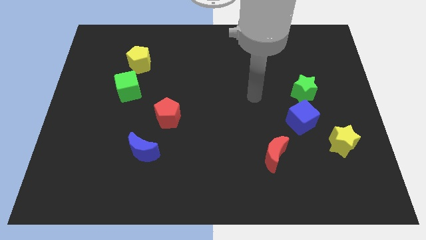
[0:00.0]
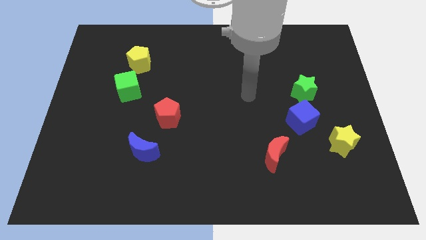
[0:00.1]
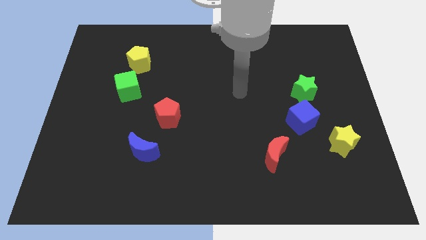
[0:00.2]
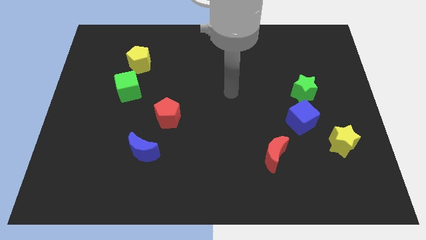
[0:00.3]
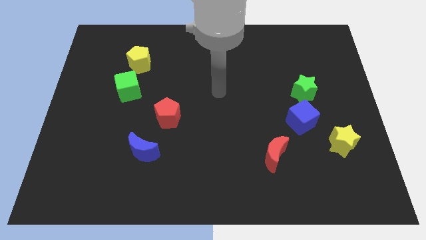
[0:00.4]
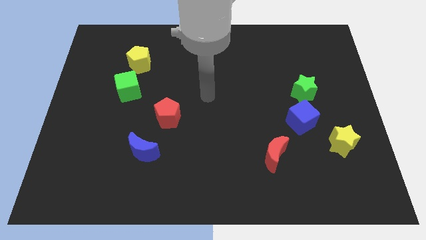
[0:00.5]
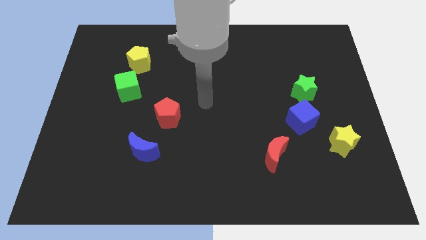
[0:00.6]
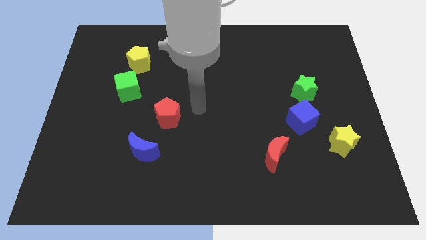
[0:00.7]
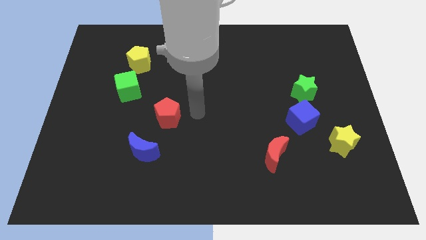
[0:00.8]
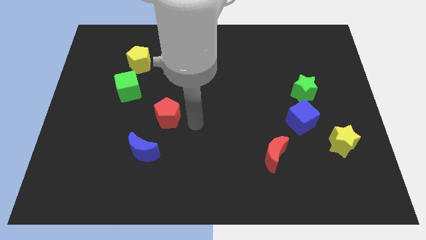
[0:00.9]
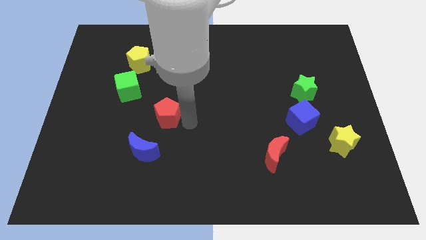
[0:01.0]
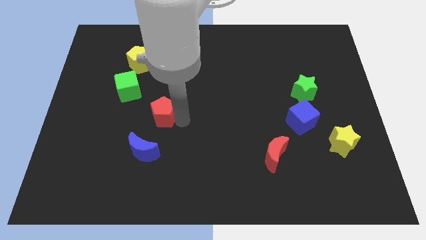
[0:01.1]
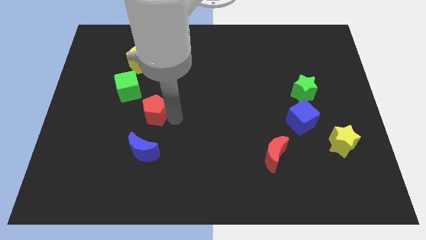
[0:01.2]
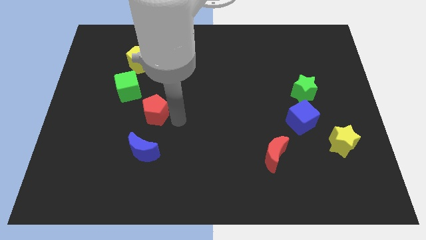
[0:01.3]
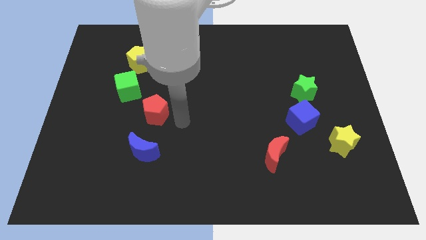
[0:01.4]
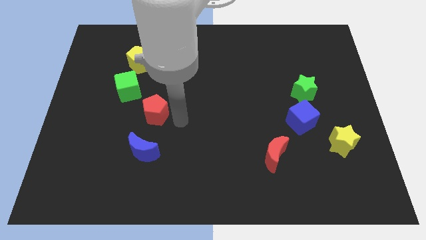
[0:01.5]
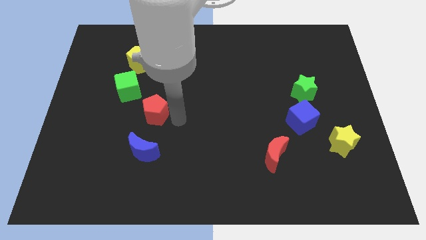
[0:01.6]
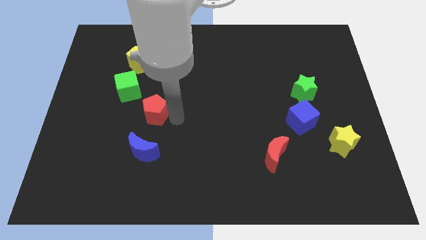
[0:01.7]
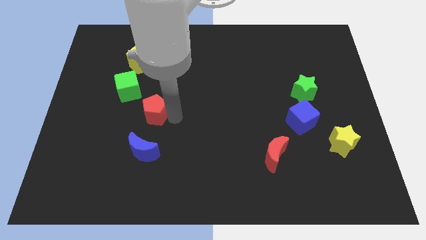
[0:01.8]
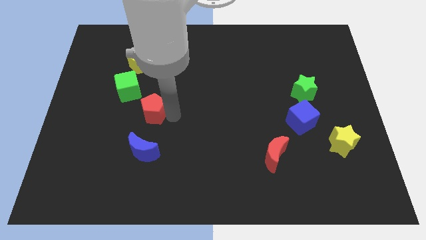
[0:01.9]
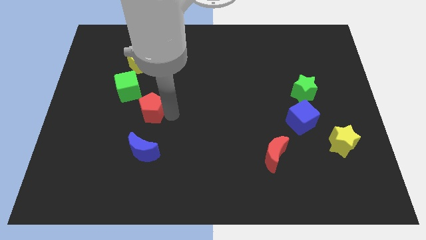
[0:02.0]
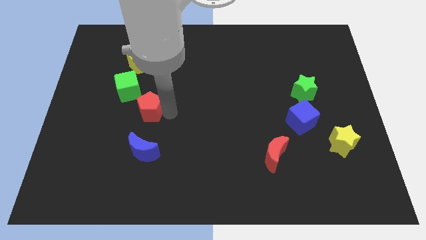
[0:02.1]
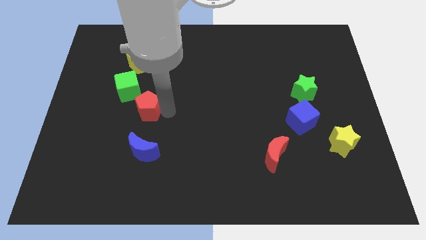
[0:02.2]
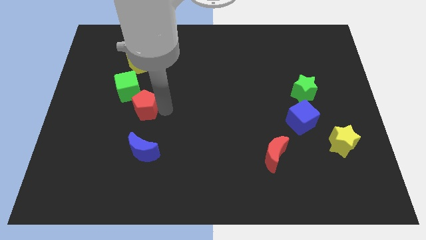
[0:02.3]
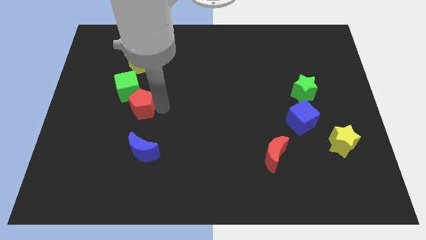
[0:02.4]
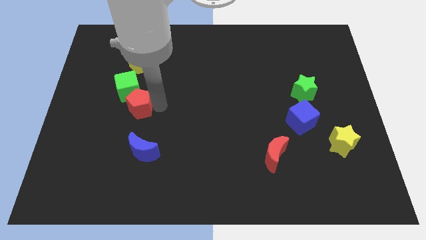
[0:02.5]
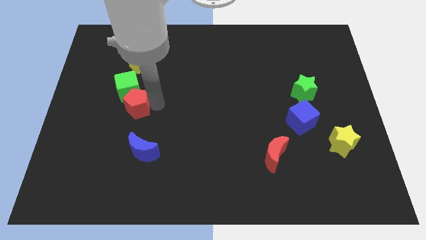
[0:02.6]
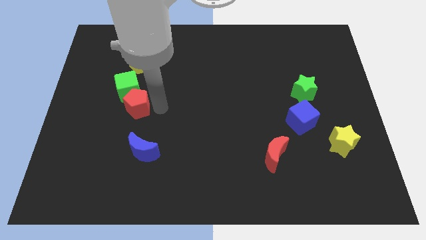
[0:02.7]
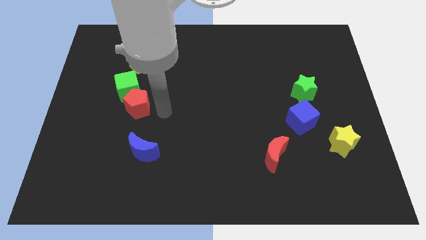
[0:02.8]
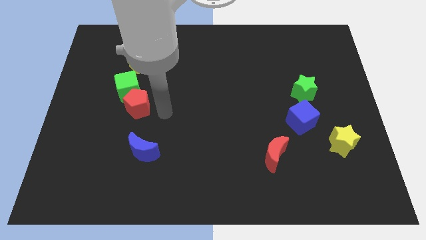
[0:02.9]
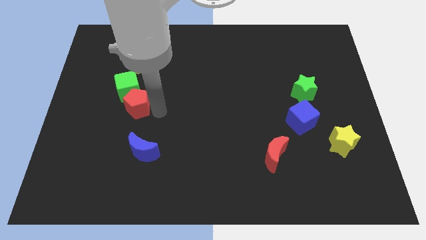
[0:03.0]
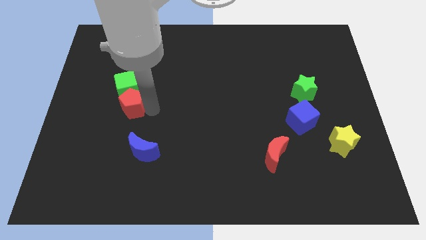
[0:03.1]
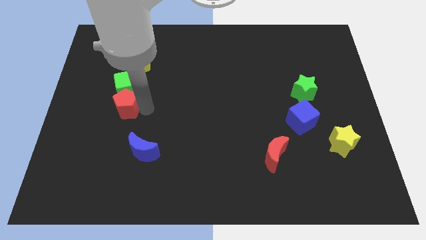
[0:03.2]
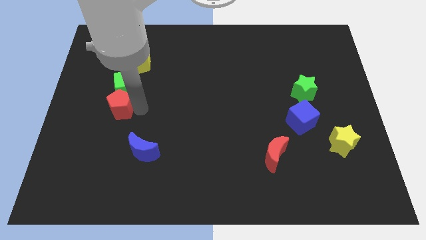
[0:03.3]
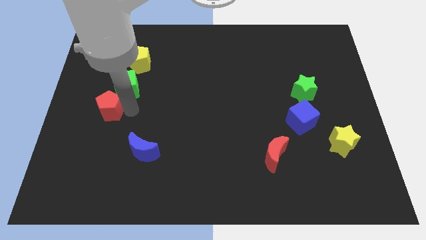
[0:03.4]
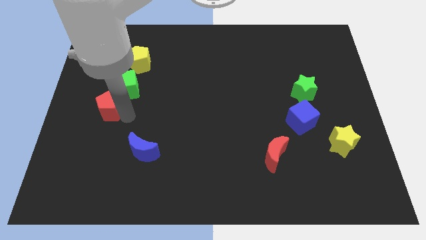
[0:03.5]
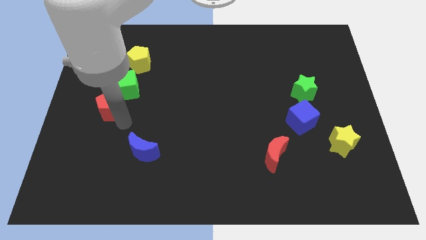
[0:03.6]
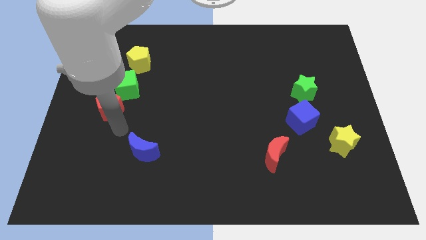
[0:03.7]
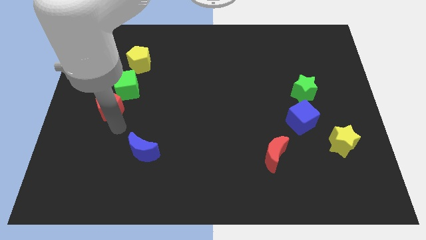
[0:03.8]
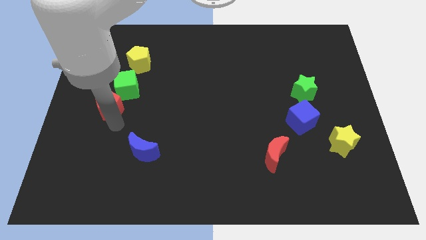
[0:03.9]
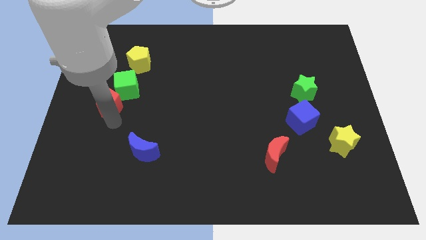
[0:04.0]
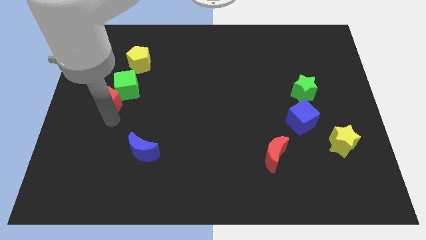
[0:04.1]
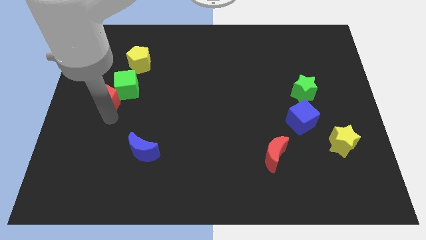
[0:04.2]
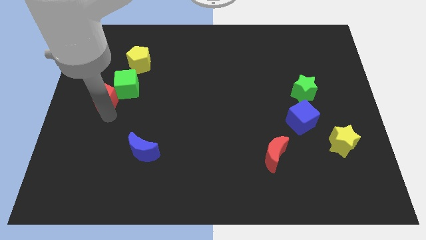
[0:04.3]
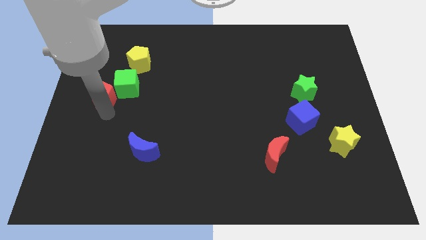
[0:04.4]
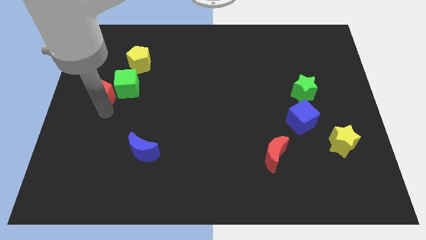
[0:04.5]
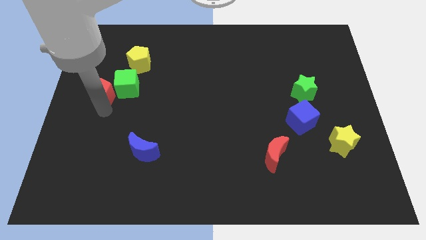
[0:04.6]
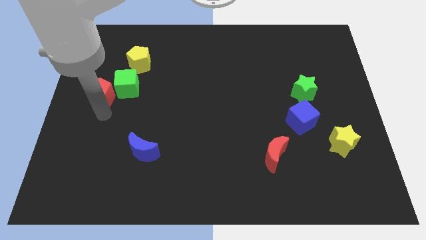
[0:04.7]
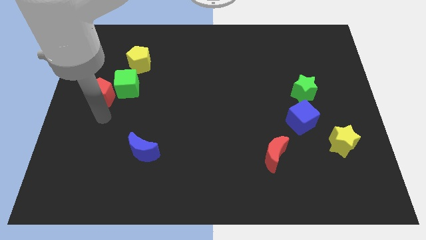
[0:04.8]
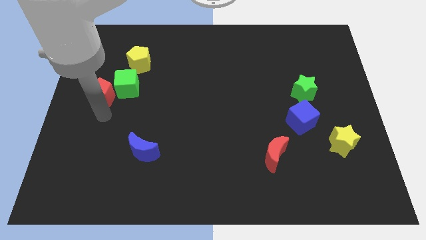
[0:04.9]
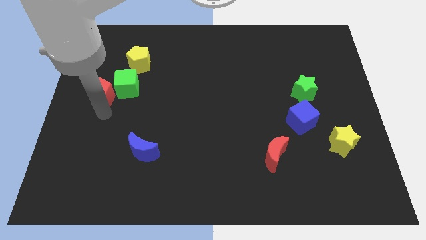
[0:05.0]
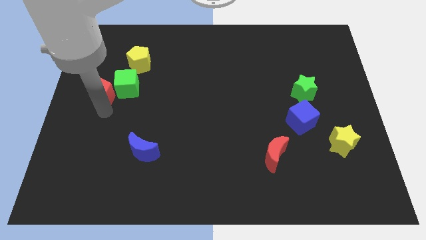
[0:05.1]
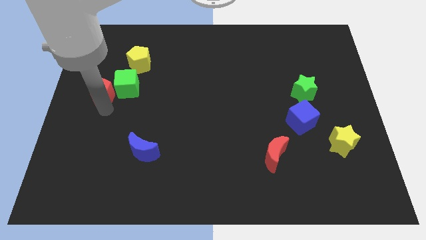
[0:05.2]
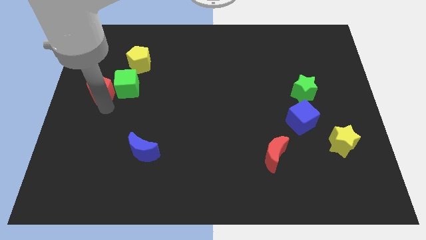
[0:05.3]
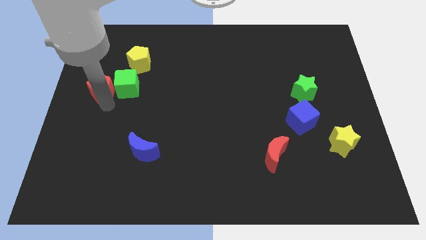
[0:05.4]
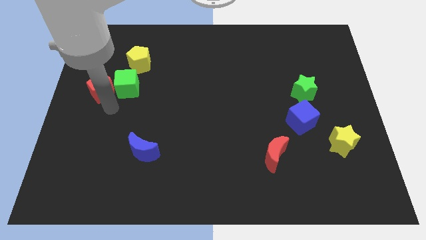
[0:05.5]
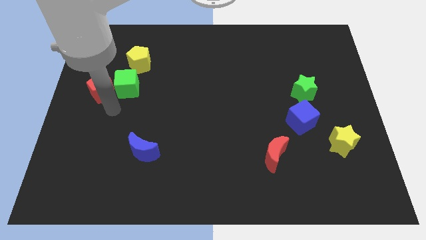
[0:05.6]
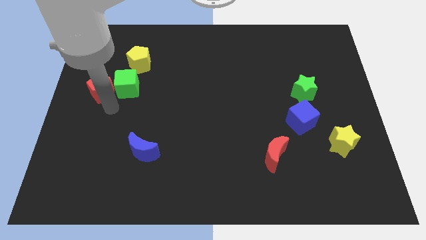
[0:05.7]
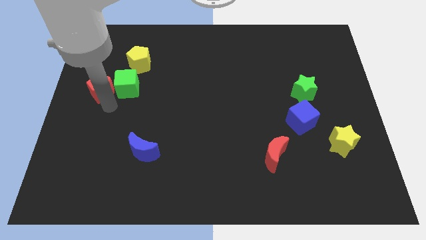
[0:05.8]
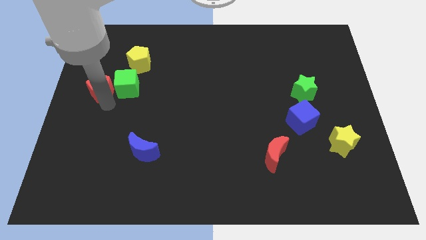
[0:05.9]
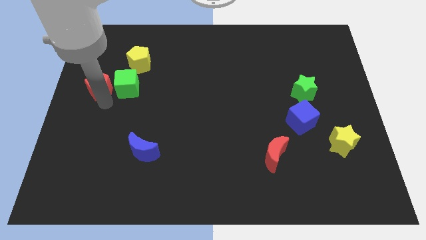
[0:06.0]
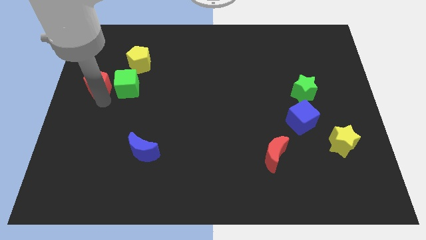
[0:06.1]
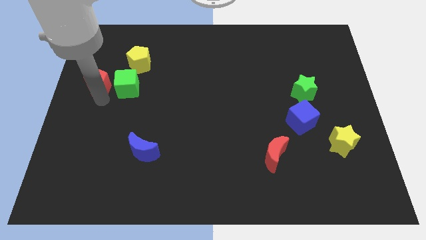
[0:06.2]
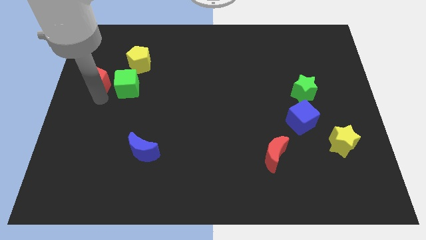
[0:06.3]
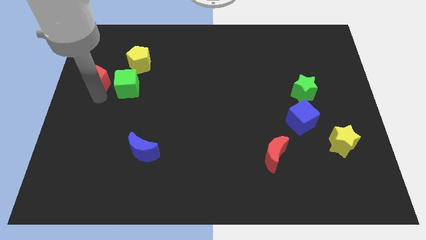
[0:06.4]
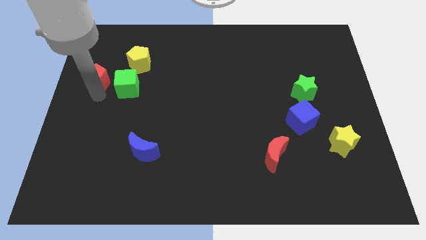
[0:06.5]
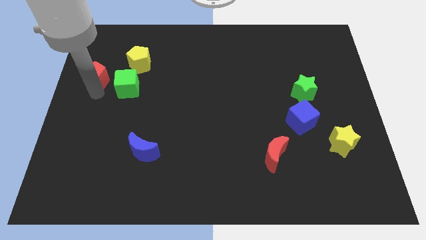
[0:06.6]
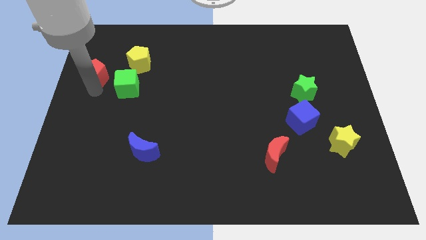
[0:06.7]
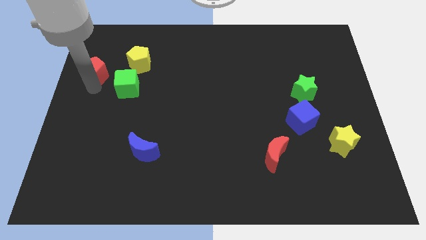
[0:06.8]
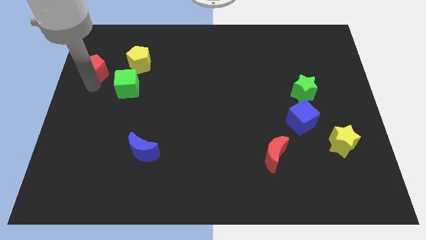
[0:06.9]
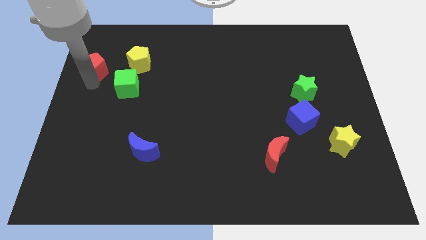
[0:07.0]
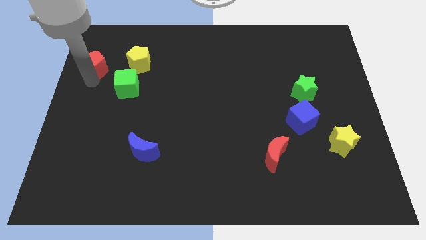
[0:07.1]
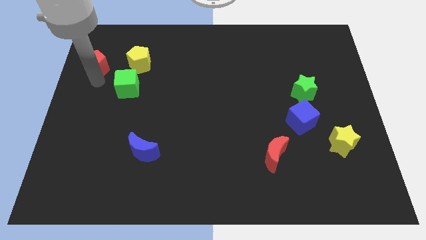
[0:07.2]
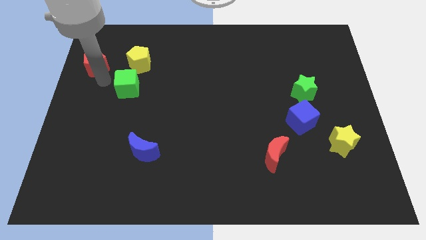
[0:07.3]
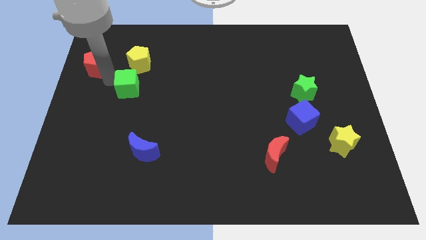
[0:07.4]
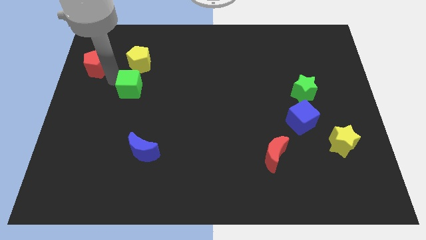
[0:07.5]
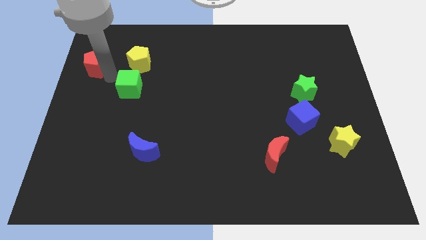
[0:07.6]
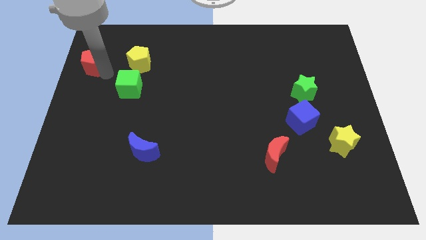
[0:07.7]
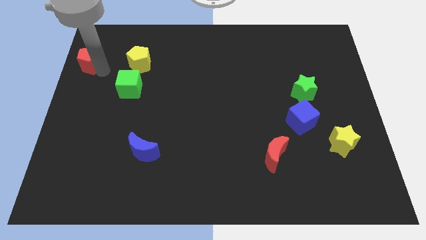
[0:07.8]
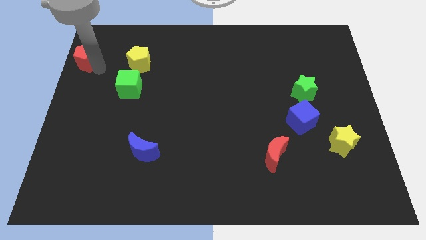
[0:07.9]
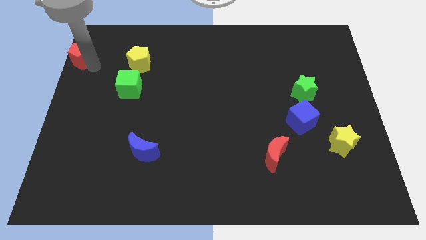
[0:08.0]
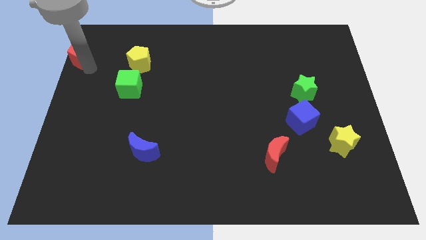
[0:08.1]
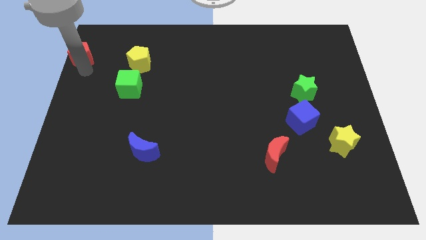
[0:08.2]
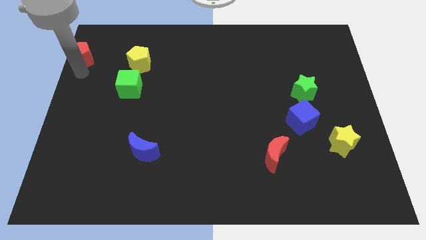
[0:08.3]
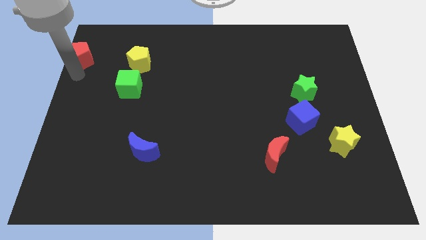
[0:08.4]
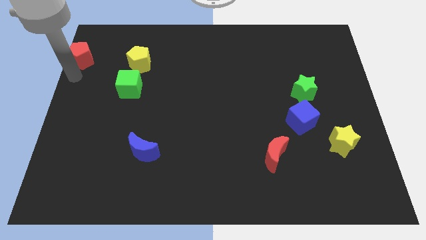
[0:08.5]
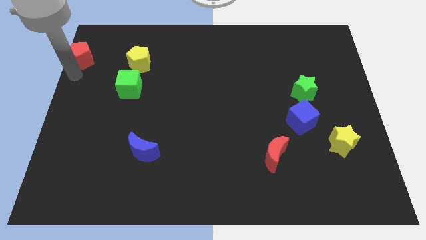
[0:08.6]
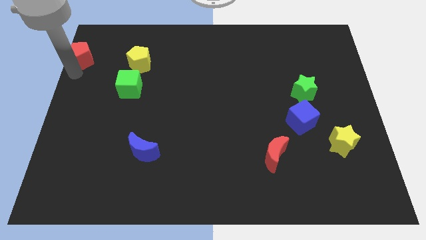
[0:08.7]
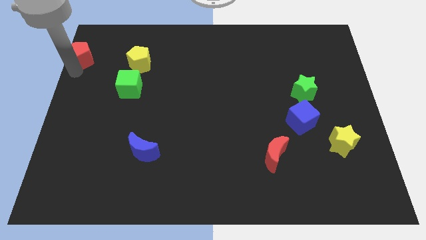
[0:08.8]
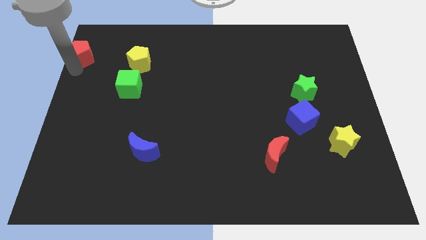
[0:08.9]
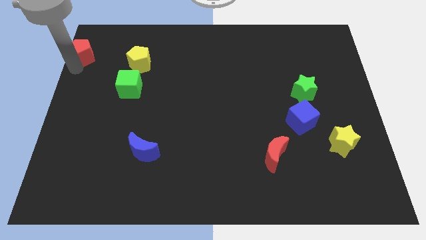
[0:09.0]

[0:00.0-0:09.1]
put the red pentagon to the top left
